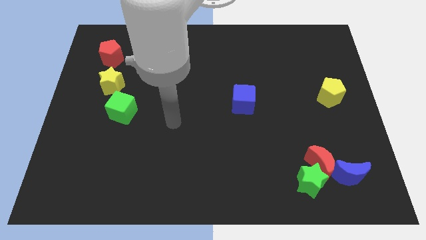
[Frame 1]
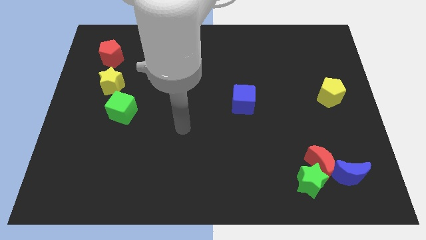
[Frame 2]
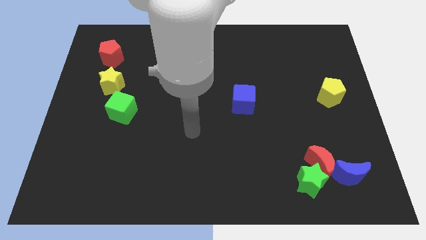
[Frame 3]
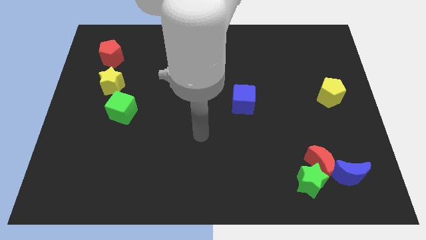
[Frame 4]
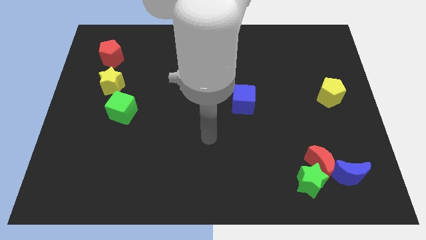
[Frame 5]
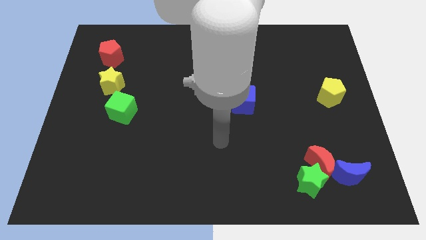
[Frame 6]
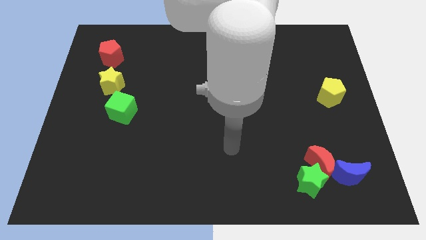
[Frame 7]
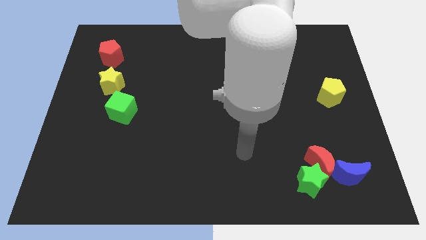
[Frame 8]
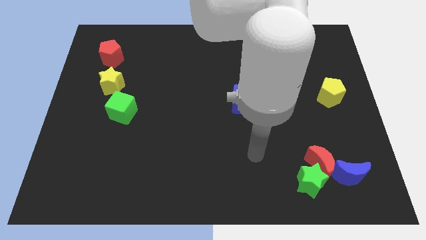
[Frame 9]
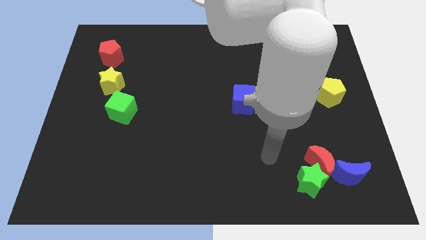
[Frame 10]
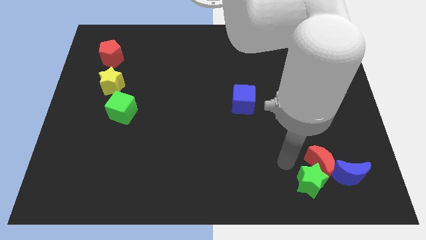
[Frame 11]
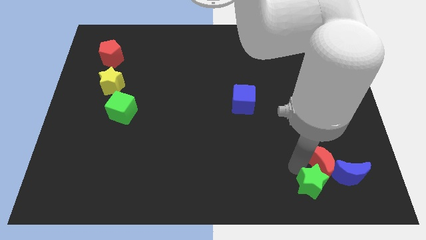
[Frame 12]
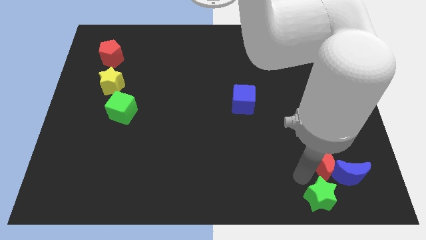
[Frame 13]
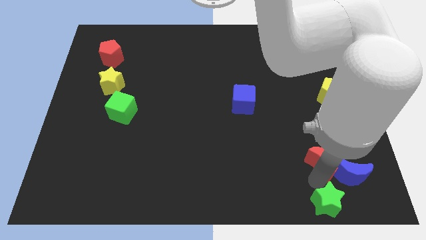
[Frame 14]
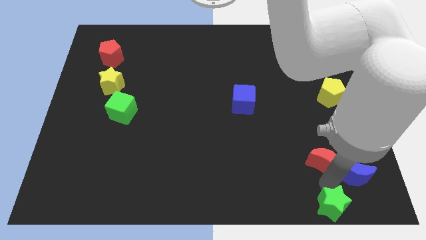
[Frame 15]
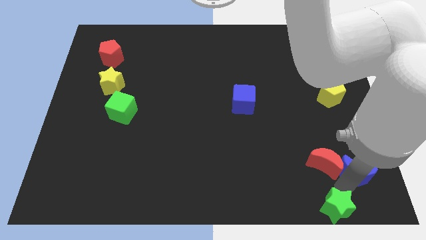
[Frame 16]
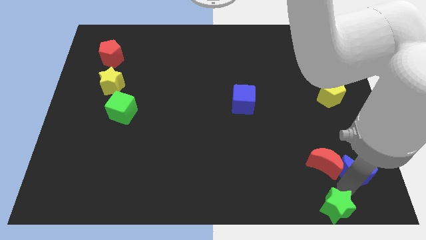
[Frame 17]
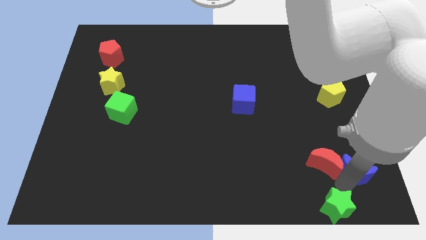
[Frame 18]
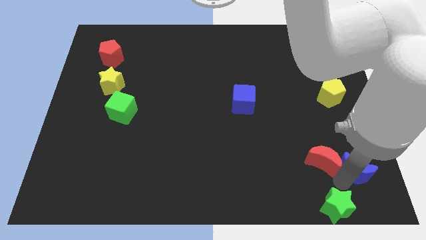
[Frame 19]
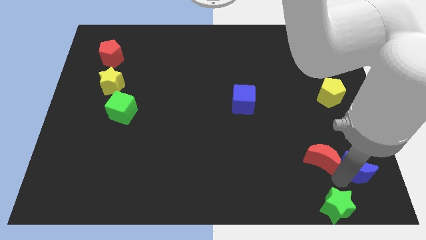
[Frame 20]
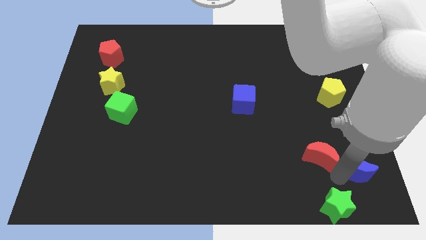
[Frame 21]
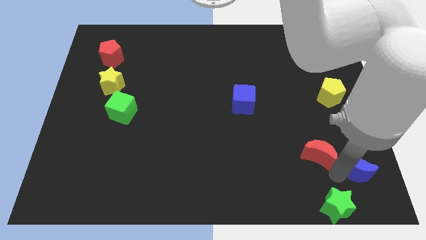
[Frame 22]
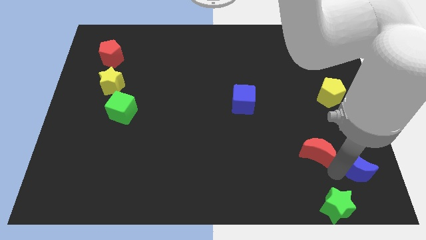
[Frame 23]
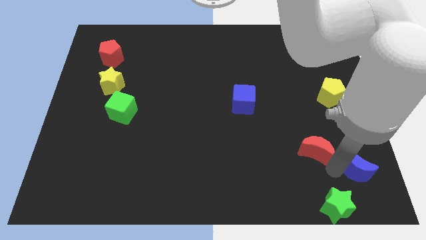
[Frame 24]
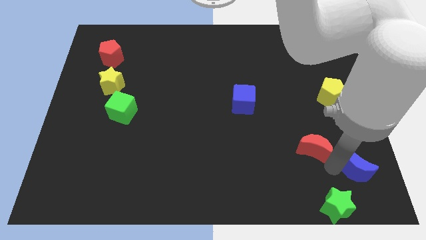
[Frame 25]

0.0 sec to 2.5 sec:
separate the red moon from the green star and blue moon

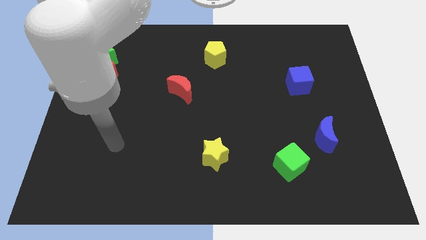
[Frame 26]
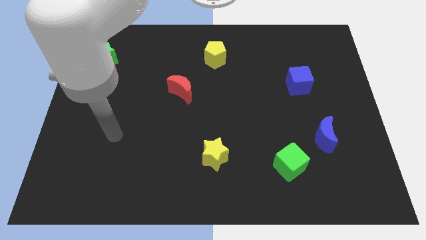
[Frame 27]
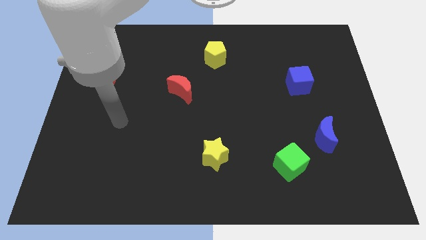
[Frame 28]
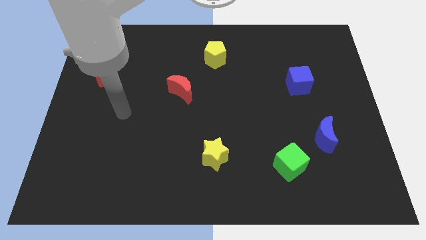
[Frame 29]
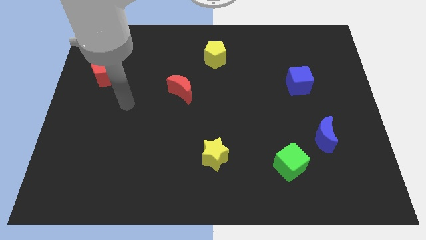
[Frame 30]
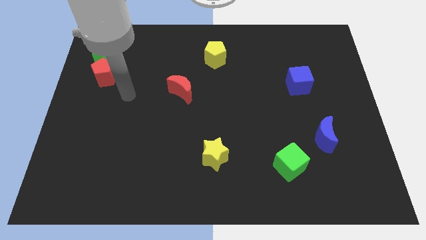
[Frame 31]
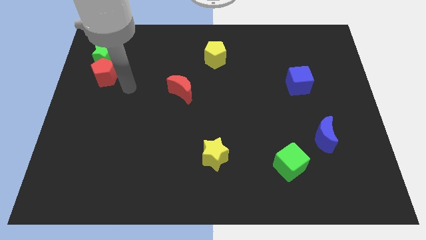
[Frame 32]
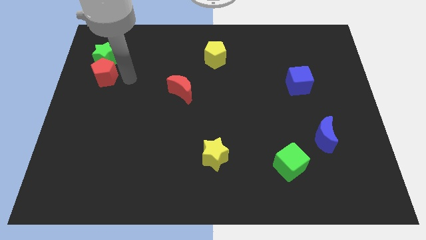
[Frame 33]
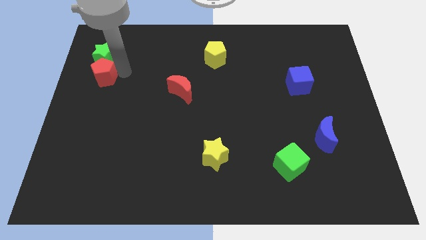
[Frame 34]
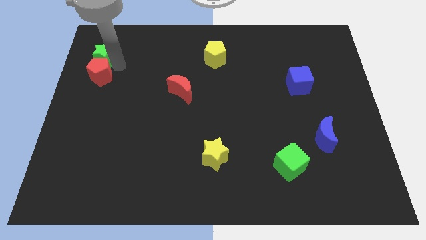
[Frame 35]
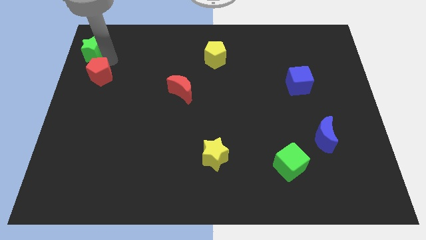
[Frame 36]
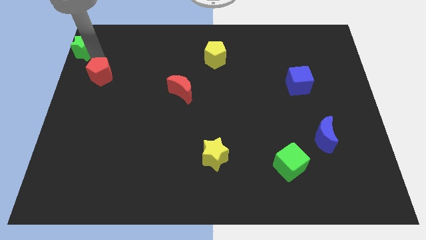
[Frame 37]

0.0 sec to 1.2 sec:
pull the red pentagon apart from the green star

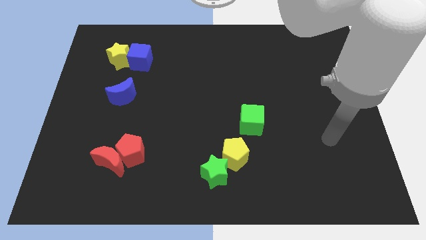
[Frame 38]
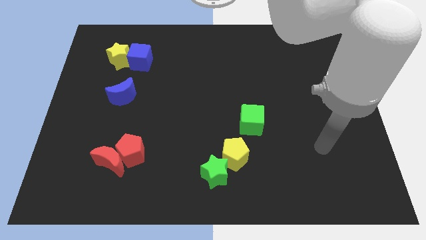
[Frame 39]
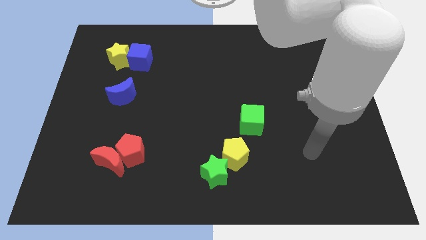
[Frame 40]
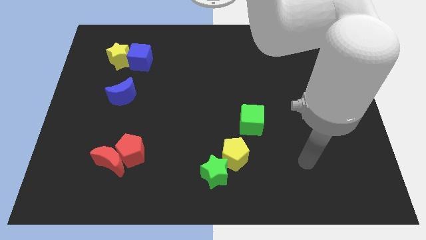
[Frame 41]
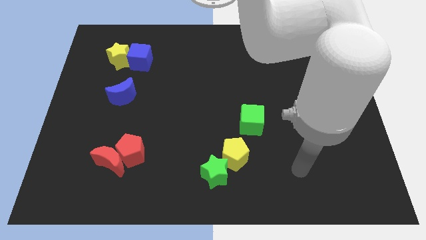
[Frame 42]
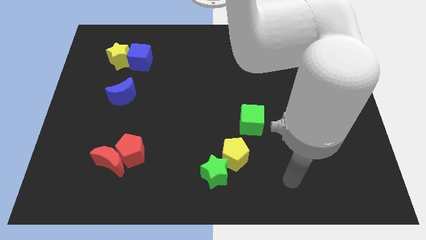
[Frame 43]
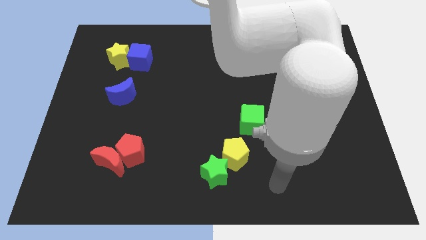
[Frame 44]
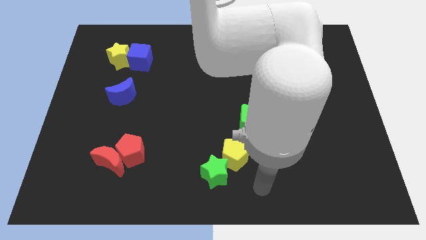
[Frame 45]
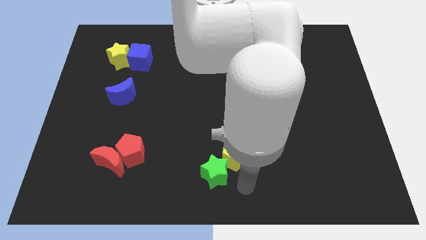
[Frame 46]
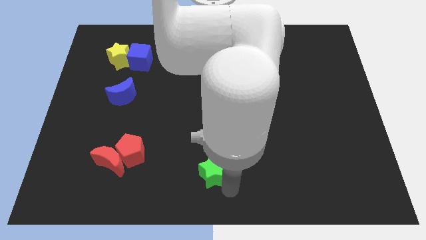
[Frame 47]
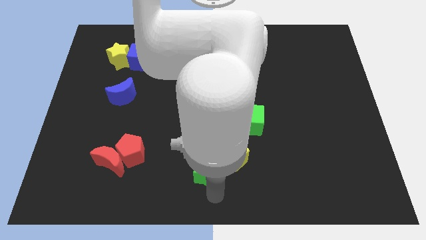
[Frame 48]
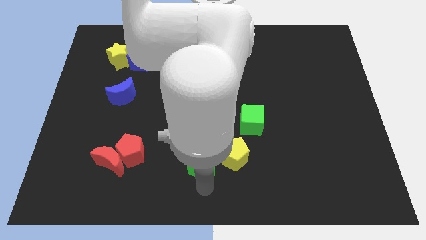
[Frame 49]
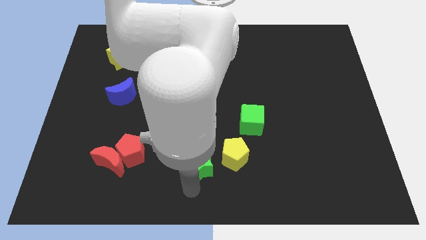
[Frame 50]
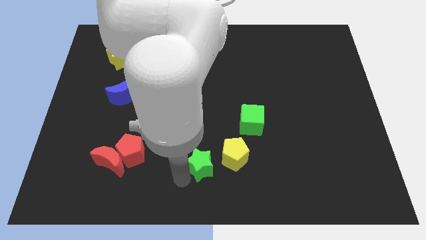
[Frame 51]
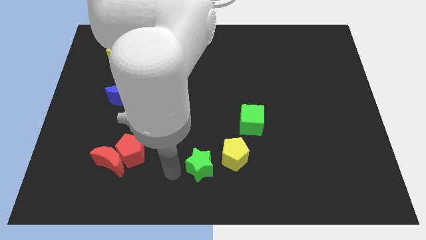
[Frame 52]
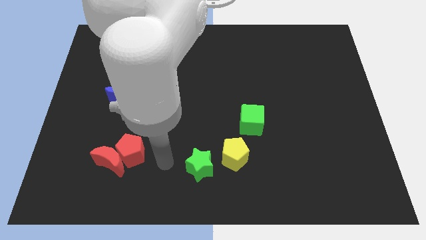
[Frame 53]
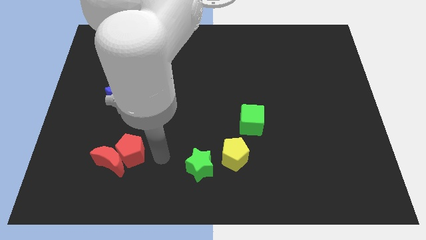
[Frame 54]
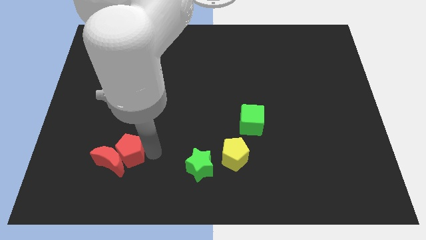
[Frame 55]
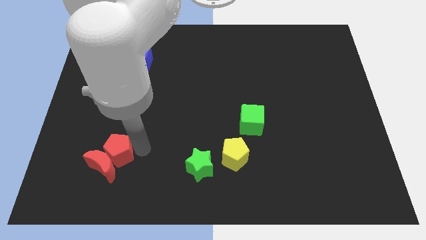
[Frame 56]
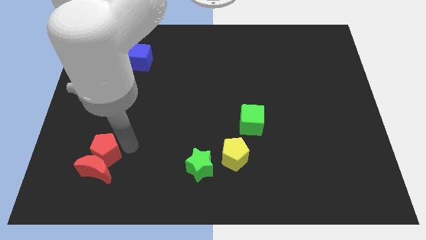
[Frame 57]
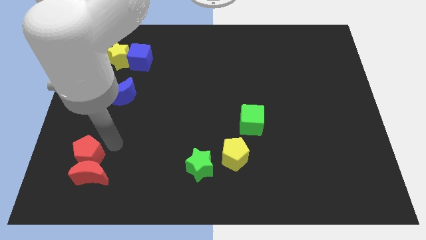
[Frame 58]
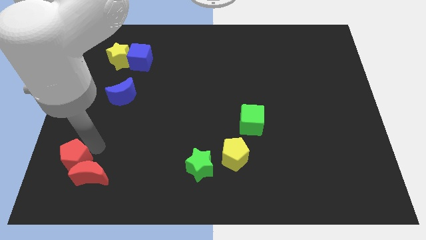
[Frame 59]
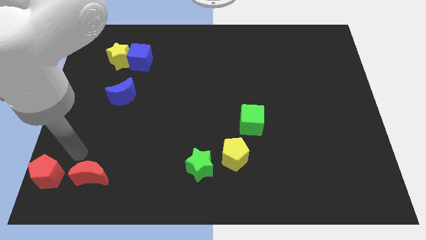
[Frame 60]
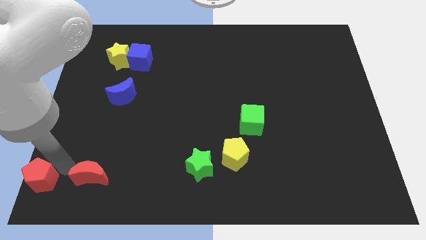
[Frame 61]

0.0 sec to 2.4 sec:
pull the red moon apart from the red pentagon

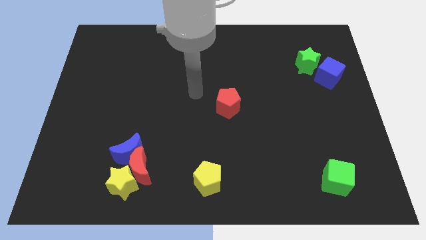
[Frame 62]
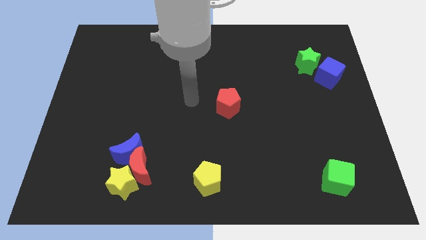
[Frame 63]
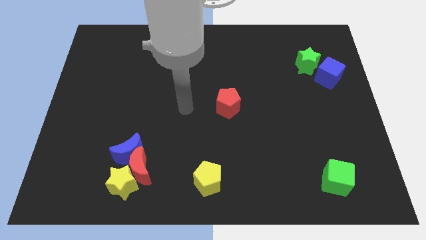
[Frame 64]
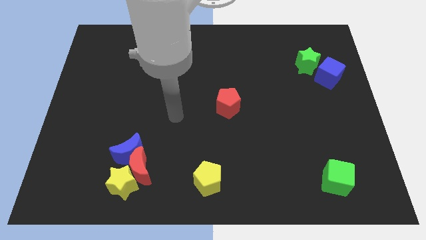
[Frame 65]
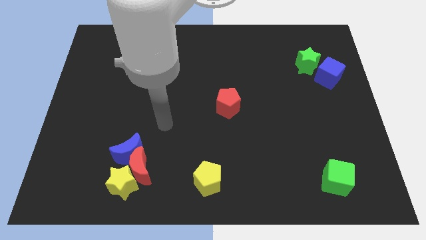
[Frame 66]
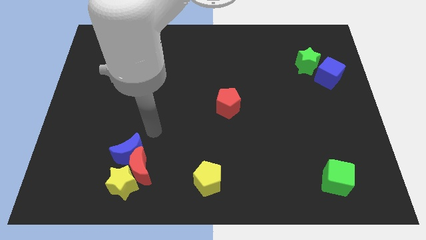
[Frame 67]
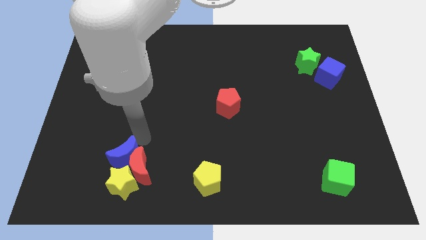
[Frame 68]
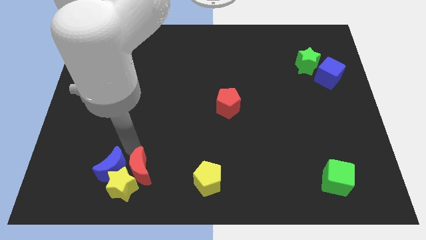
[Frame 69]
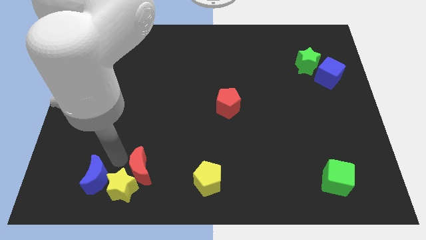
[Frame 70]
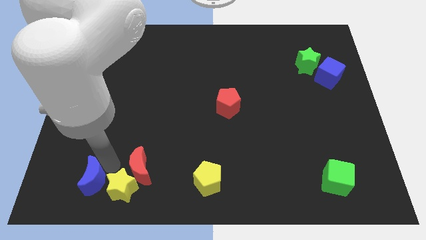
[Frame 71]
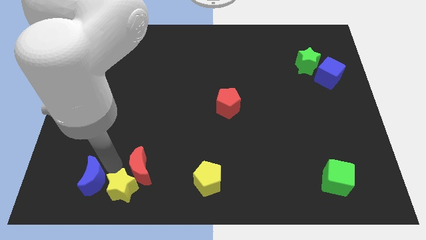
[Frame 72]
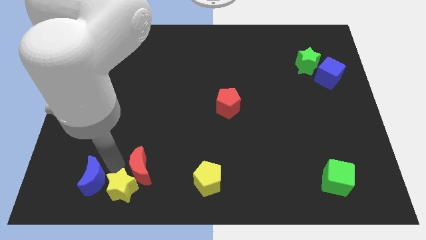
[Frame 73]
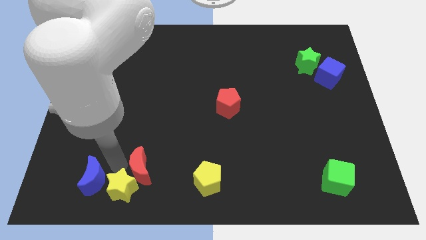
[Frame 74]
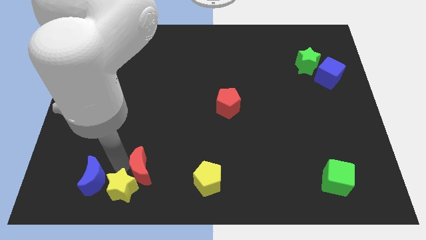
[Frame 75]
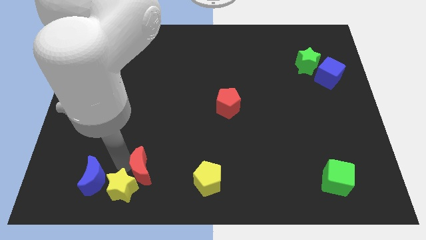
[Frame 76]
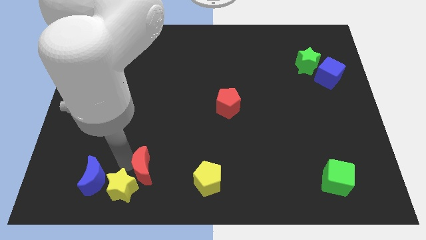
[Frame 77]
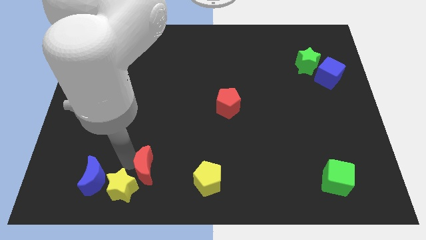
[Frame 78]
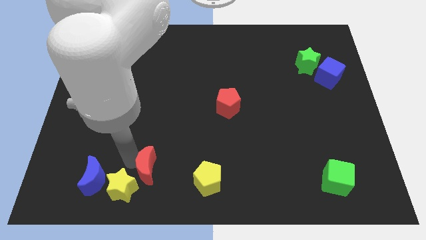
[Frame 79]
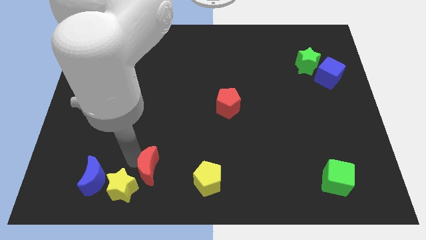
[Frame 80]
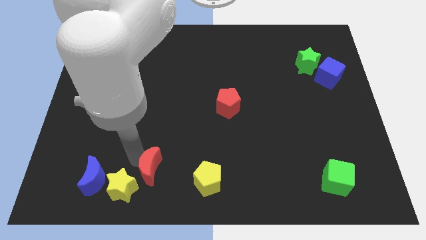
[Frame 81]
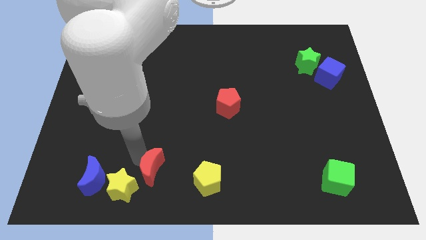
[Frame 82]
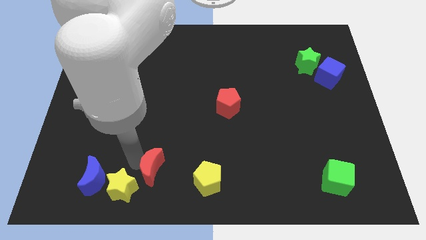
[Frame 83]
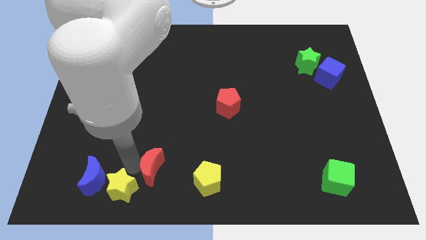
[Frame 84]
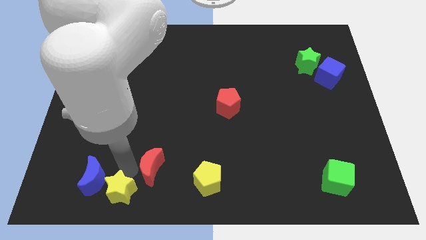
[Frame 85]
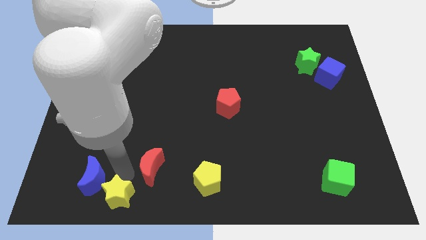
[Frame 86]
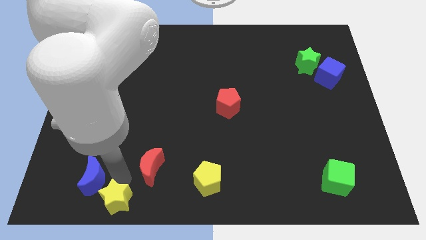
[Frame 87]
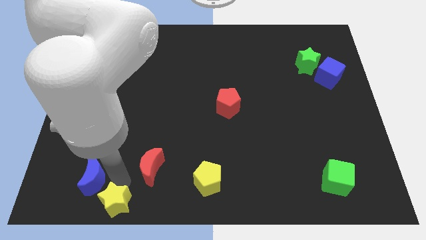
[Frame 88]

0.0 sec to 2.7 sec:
pull the red moon apart from the yellow star and blue moon

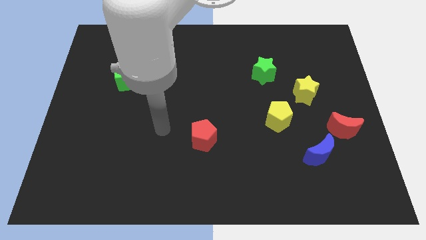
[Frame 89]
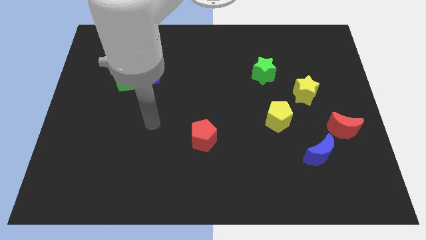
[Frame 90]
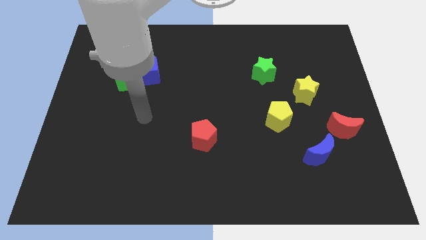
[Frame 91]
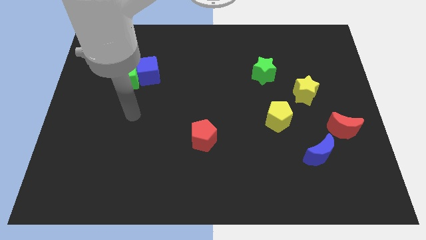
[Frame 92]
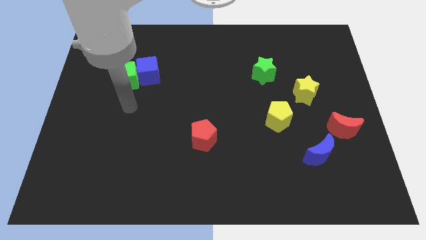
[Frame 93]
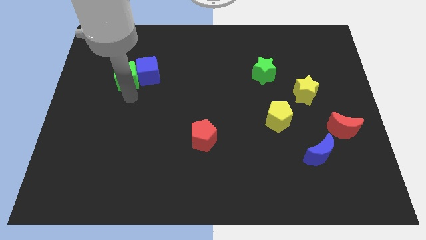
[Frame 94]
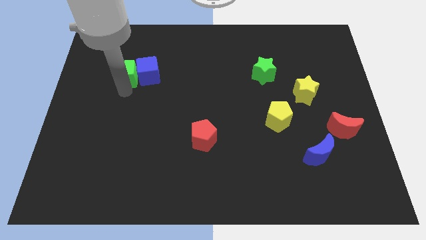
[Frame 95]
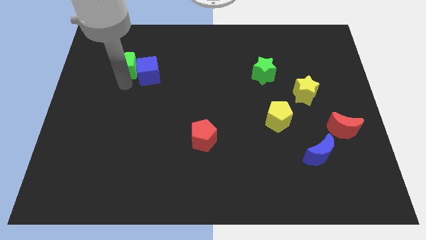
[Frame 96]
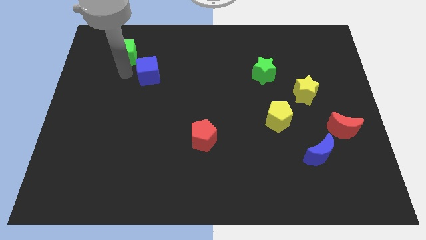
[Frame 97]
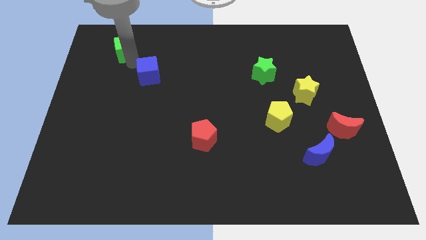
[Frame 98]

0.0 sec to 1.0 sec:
separate the blue cube from the green cube
